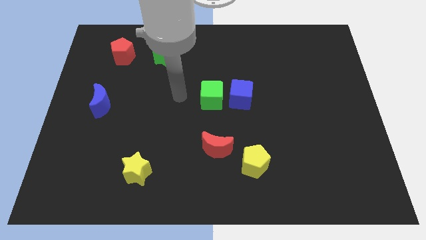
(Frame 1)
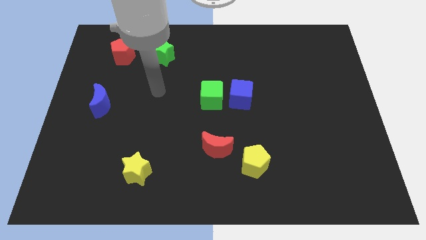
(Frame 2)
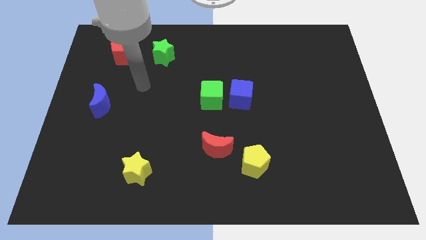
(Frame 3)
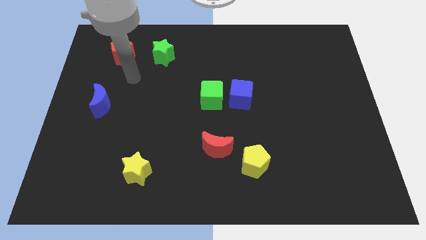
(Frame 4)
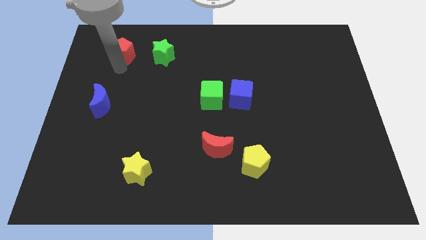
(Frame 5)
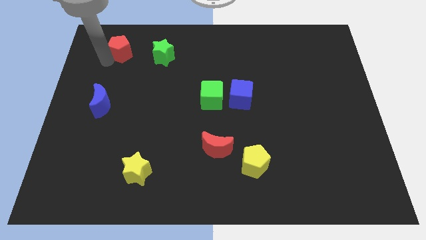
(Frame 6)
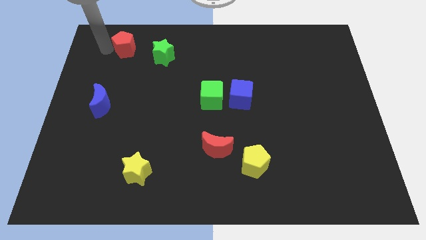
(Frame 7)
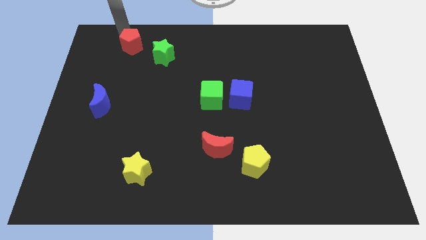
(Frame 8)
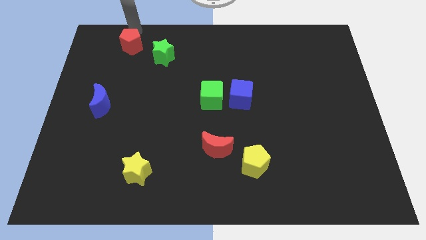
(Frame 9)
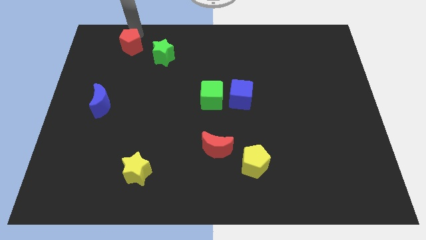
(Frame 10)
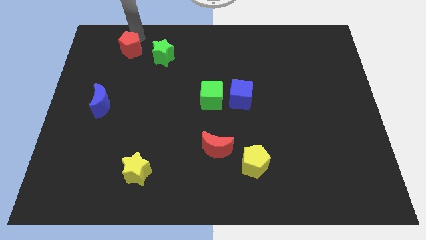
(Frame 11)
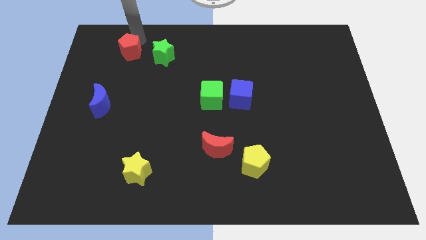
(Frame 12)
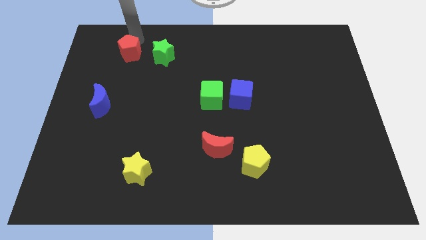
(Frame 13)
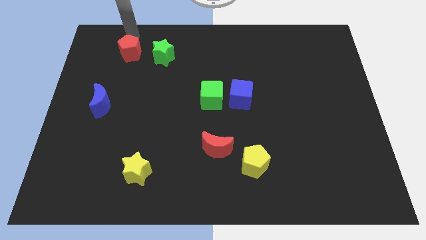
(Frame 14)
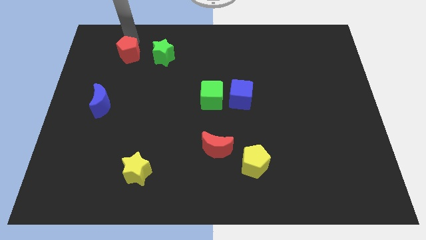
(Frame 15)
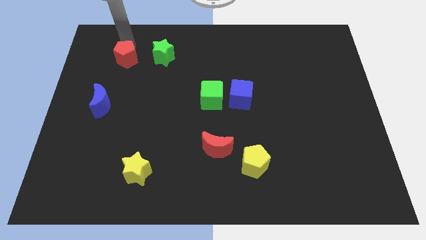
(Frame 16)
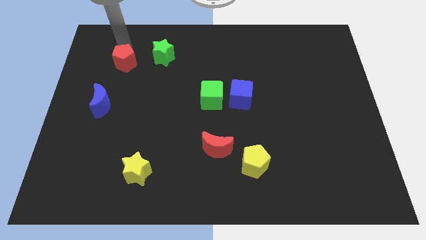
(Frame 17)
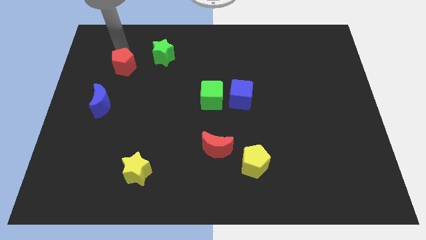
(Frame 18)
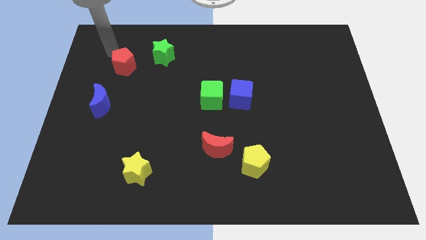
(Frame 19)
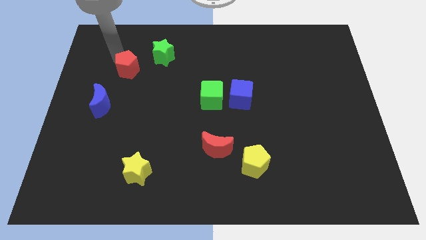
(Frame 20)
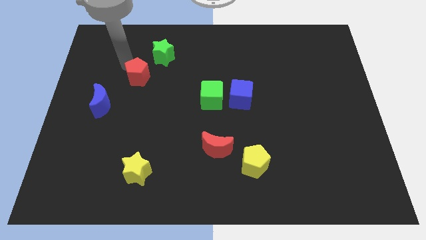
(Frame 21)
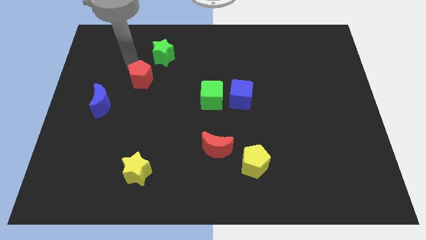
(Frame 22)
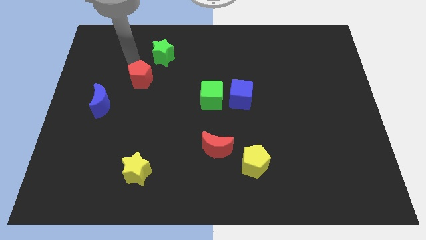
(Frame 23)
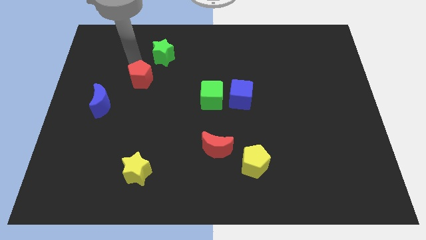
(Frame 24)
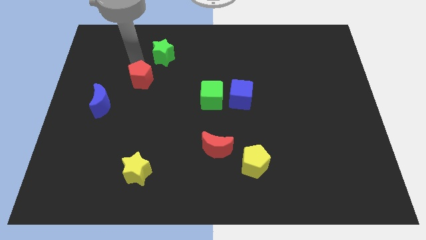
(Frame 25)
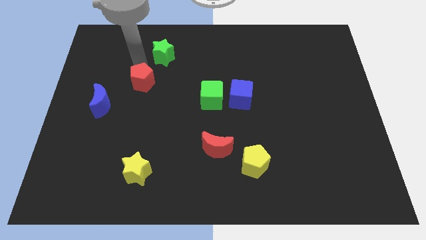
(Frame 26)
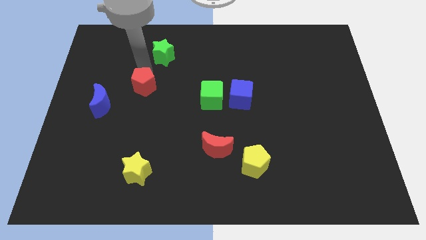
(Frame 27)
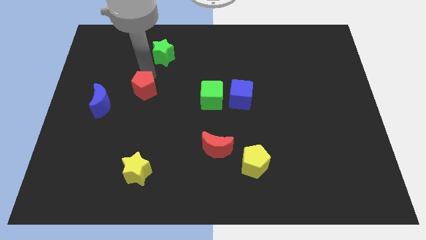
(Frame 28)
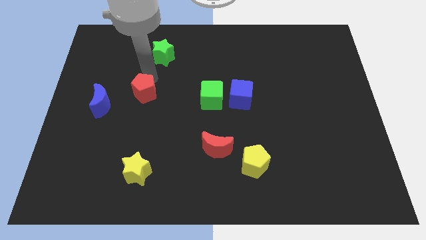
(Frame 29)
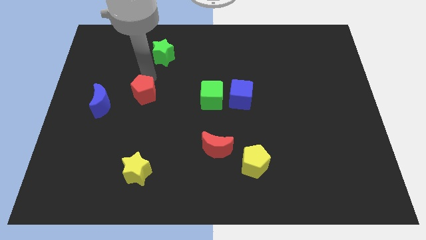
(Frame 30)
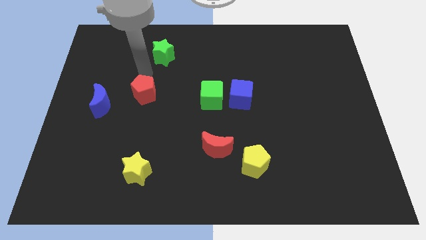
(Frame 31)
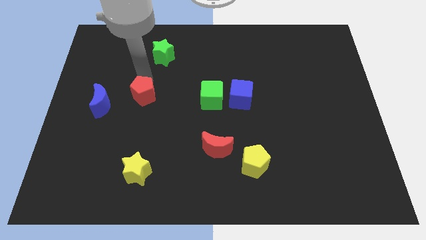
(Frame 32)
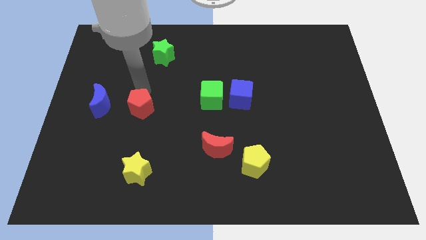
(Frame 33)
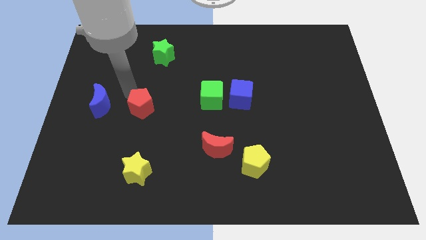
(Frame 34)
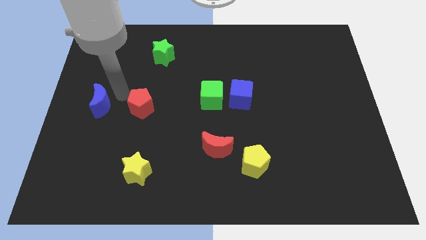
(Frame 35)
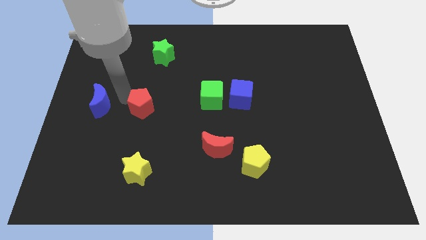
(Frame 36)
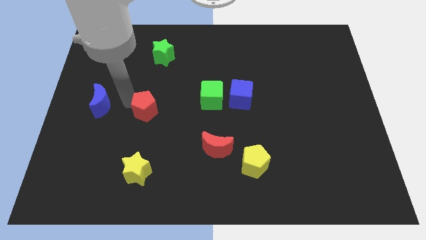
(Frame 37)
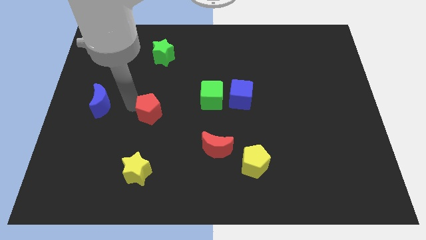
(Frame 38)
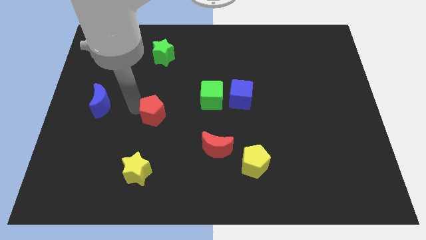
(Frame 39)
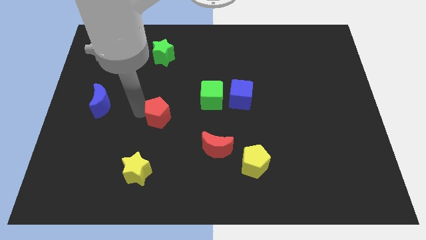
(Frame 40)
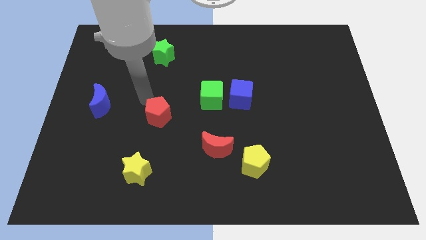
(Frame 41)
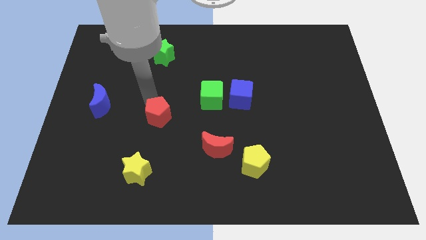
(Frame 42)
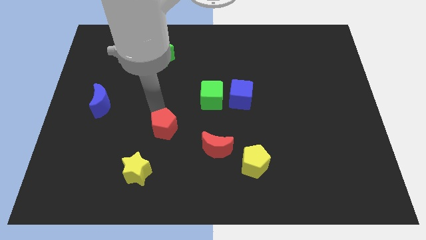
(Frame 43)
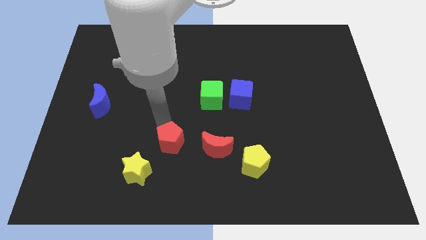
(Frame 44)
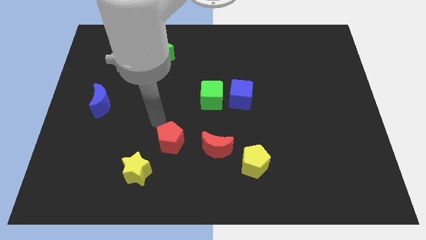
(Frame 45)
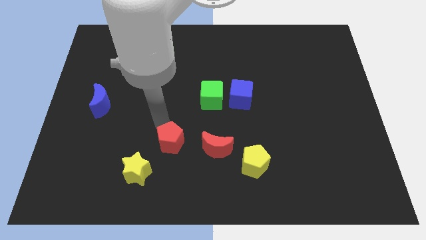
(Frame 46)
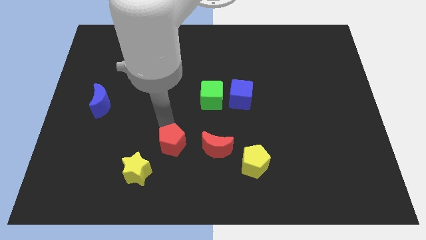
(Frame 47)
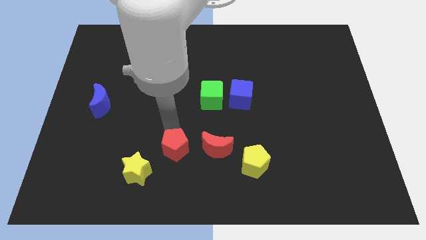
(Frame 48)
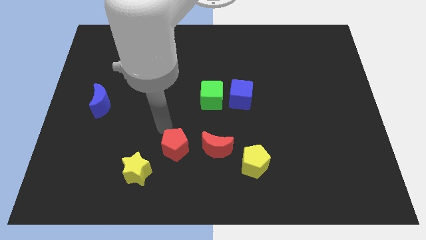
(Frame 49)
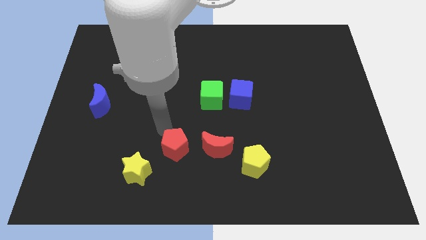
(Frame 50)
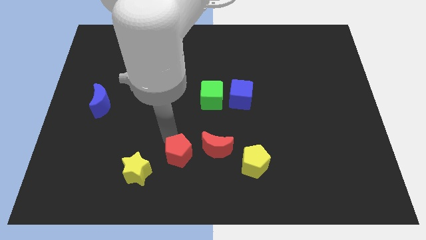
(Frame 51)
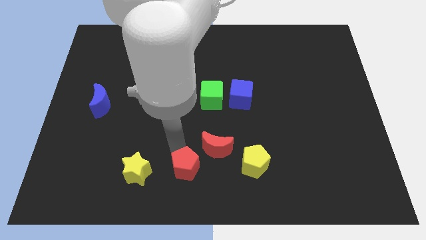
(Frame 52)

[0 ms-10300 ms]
move the red pentagon to the bottom

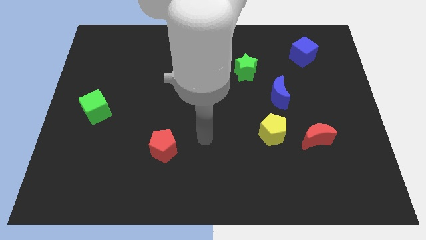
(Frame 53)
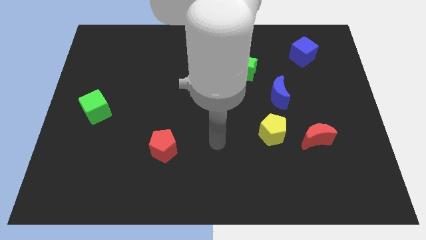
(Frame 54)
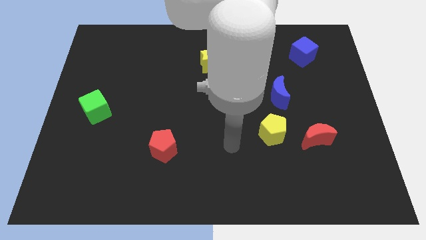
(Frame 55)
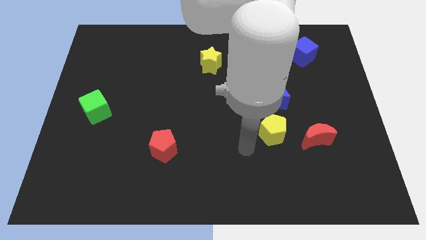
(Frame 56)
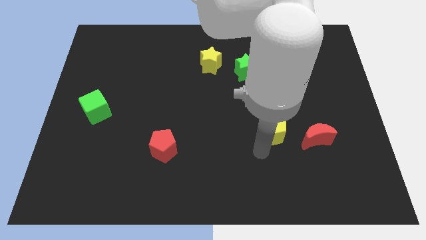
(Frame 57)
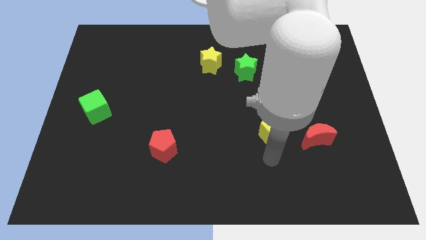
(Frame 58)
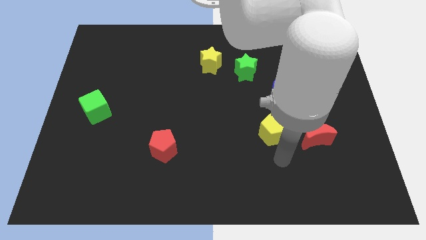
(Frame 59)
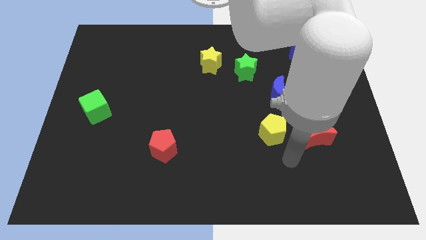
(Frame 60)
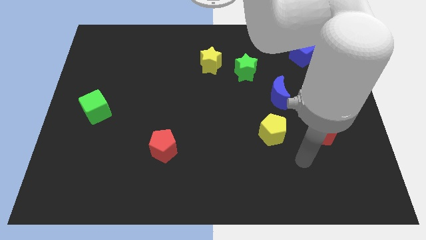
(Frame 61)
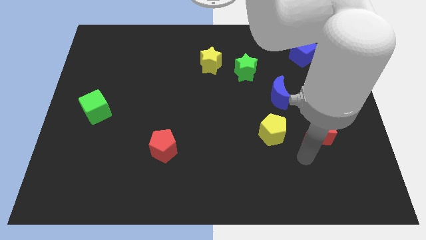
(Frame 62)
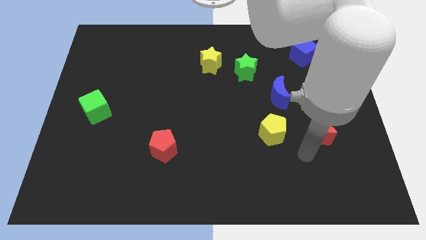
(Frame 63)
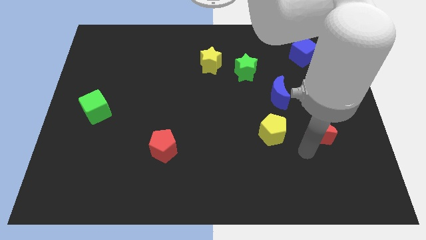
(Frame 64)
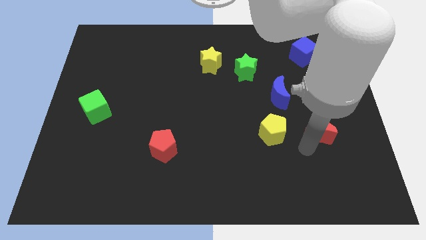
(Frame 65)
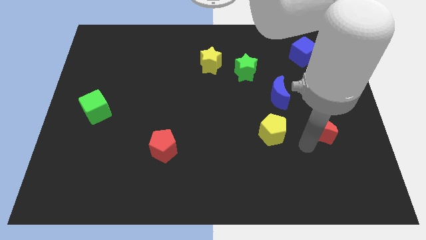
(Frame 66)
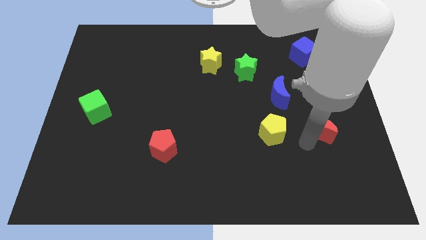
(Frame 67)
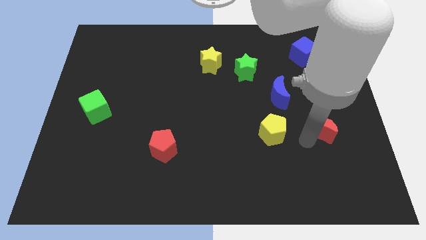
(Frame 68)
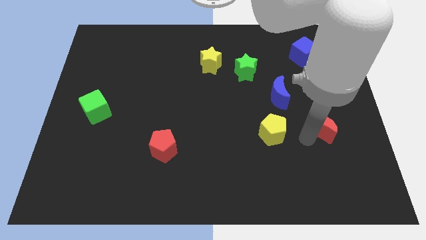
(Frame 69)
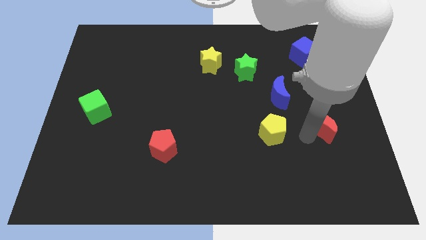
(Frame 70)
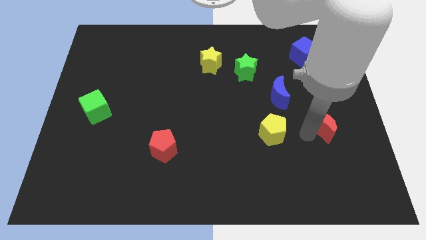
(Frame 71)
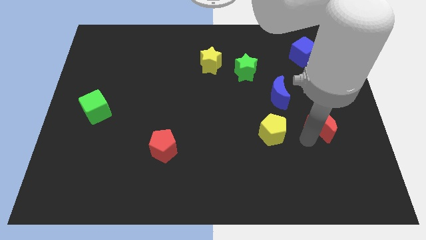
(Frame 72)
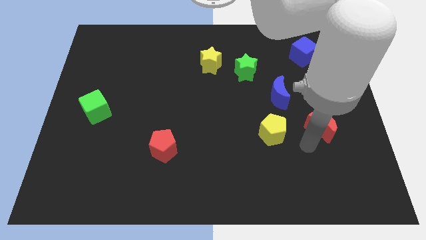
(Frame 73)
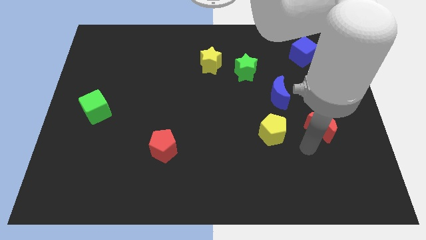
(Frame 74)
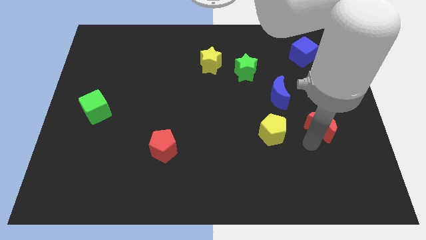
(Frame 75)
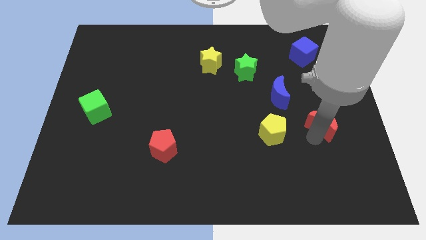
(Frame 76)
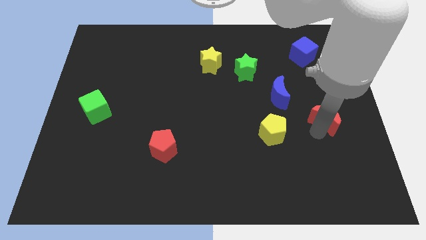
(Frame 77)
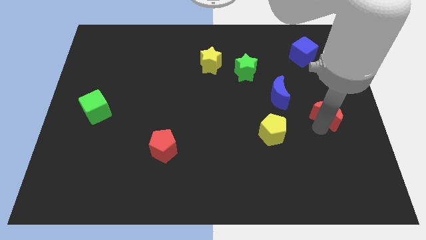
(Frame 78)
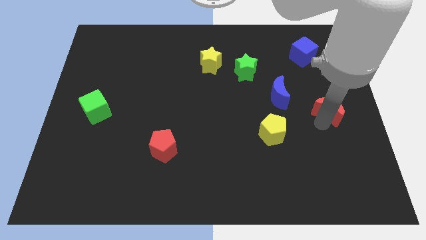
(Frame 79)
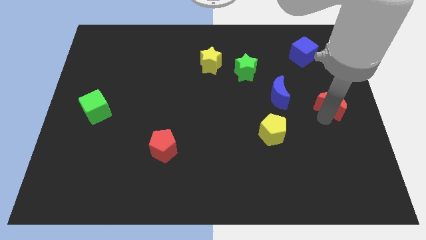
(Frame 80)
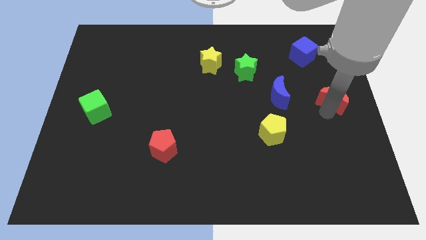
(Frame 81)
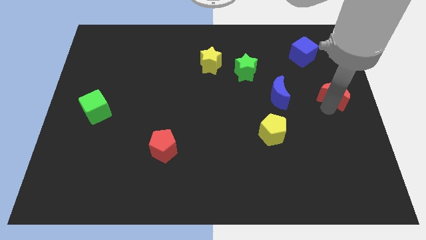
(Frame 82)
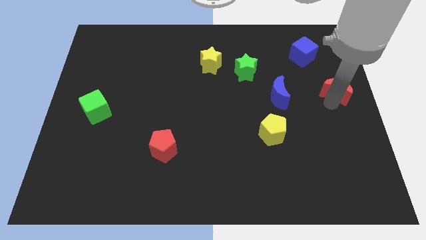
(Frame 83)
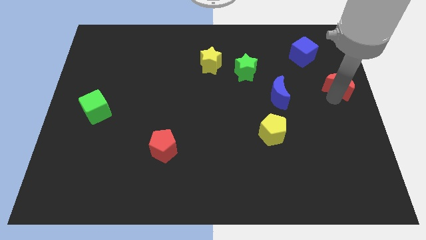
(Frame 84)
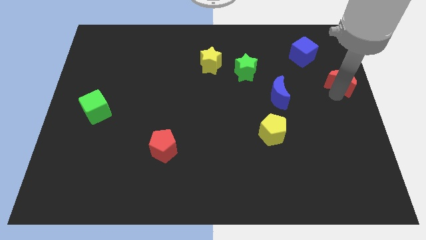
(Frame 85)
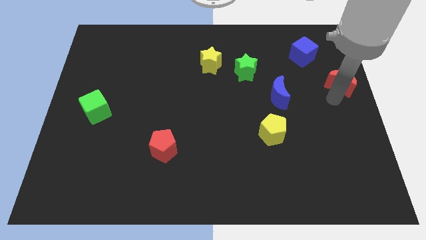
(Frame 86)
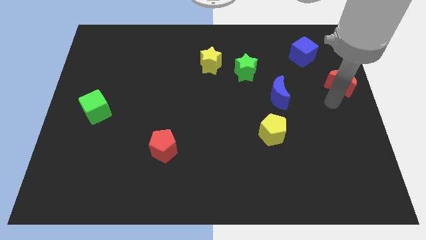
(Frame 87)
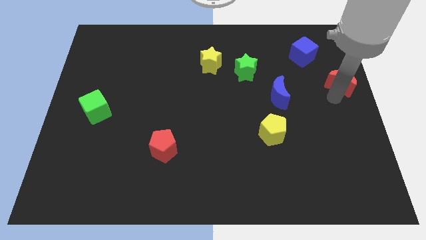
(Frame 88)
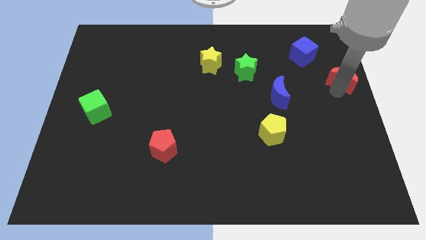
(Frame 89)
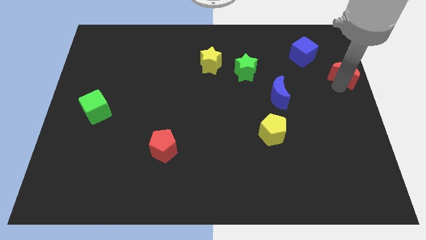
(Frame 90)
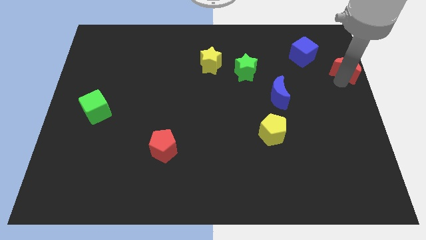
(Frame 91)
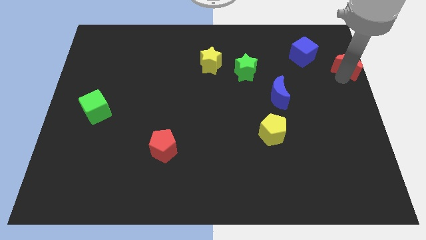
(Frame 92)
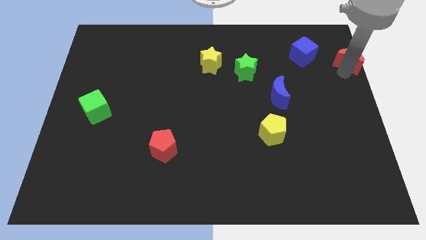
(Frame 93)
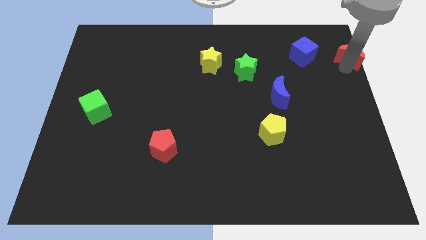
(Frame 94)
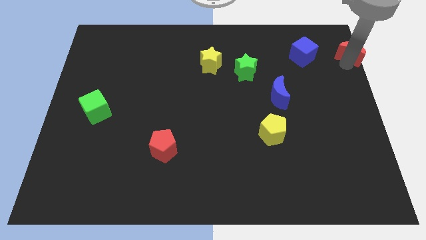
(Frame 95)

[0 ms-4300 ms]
slide the red moon to the top right corner
